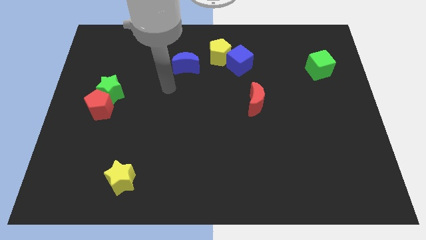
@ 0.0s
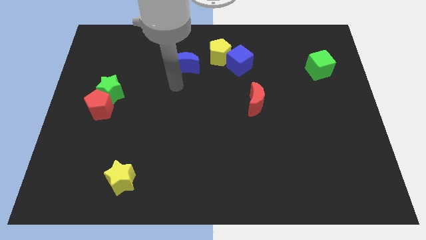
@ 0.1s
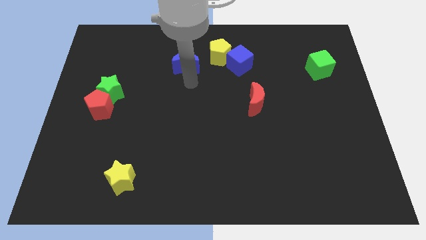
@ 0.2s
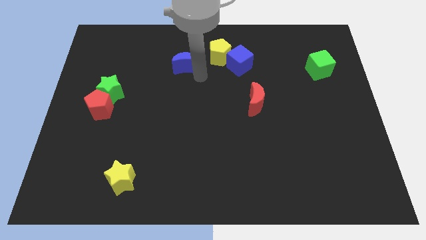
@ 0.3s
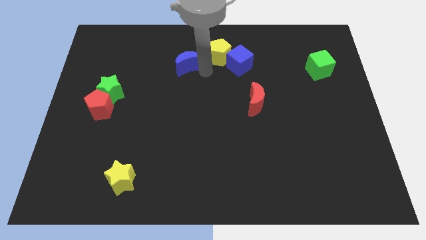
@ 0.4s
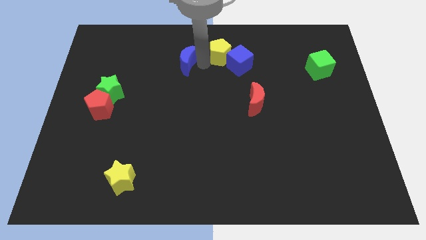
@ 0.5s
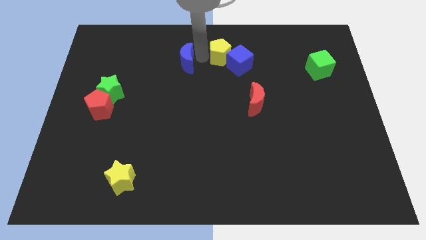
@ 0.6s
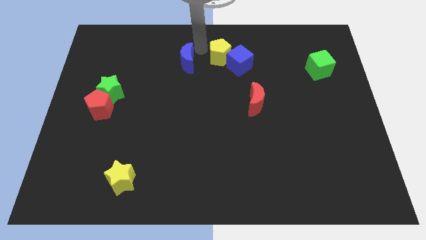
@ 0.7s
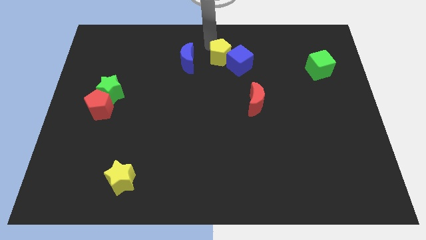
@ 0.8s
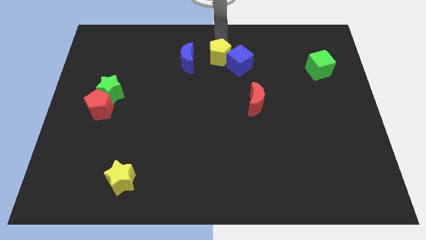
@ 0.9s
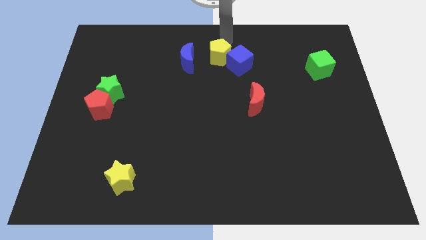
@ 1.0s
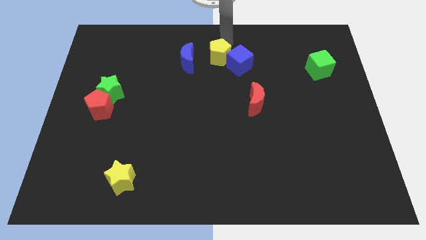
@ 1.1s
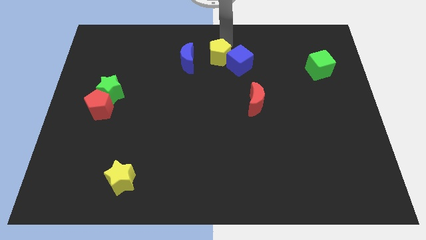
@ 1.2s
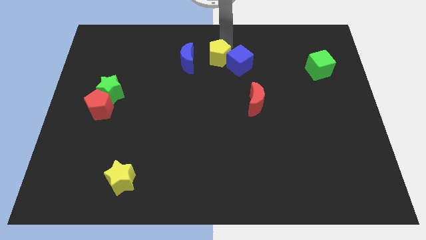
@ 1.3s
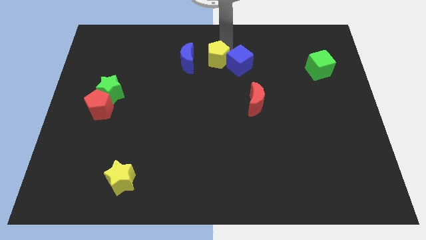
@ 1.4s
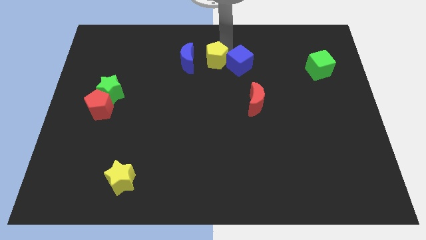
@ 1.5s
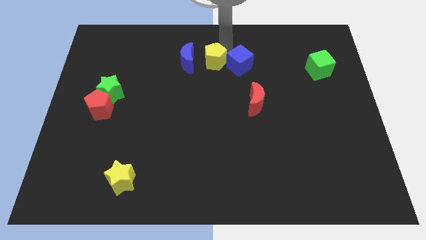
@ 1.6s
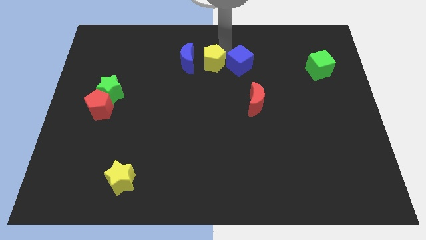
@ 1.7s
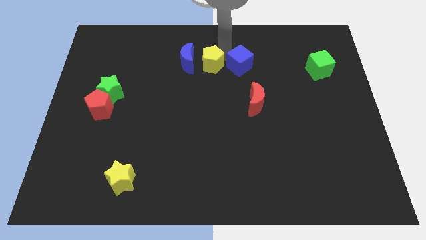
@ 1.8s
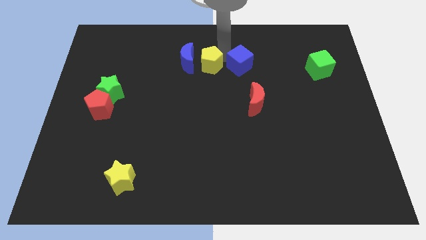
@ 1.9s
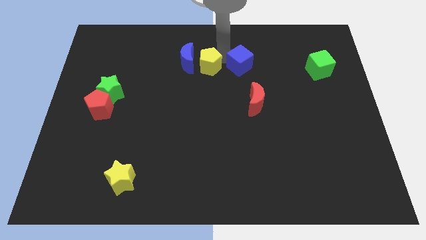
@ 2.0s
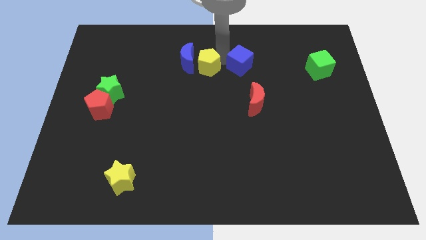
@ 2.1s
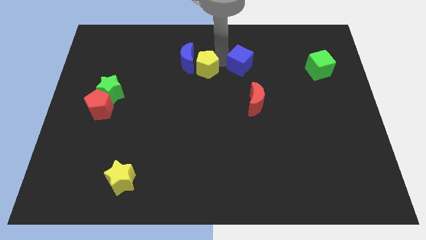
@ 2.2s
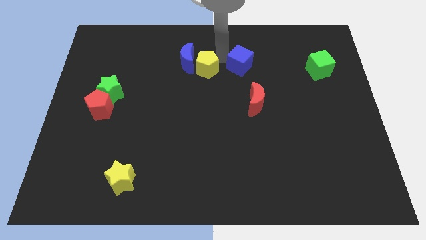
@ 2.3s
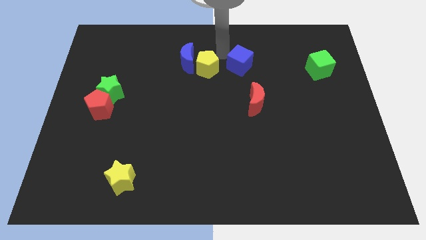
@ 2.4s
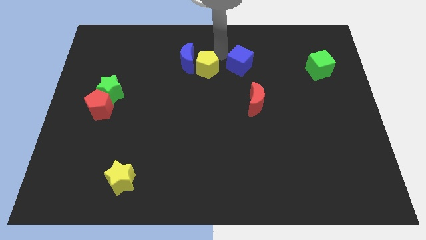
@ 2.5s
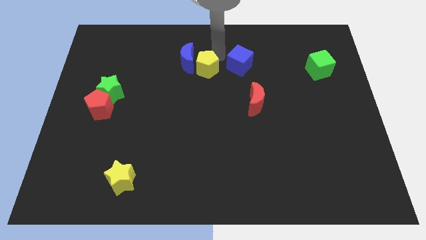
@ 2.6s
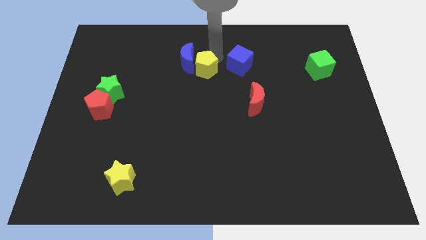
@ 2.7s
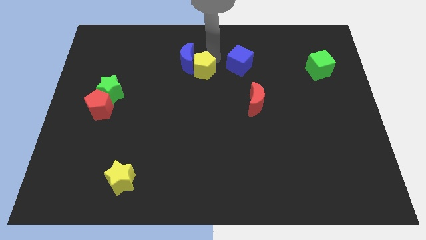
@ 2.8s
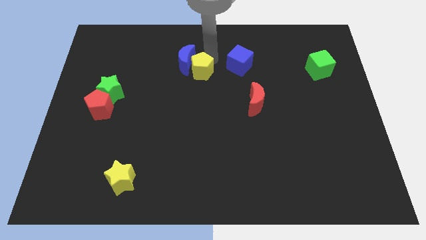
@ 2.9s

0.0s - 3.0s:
push the yellow pentagon downwards and left diagonally slightly

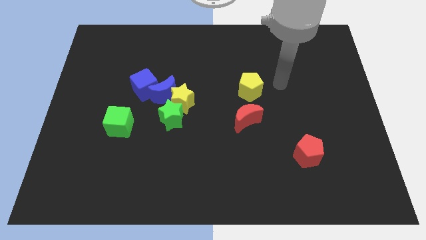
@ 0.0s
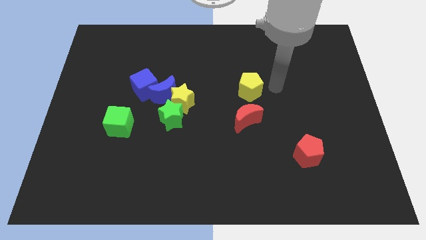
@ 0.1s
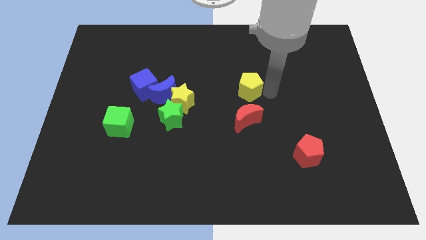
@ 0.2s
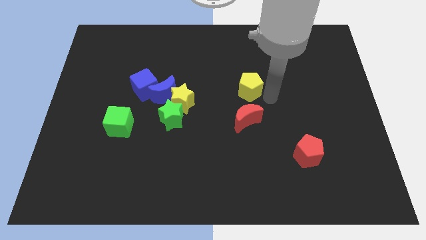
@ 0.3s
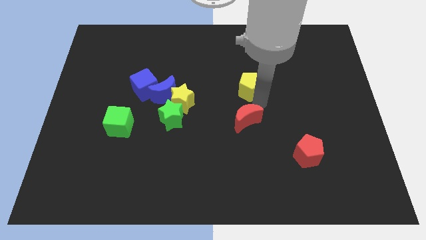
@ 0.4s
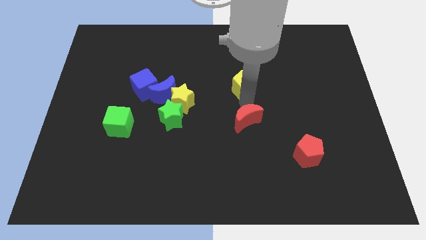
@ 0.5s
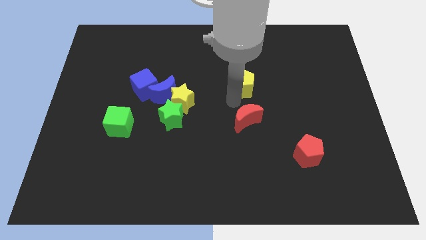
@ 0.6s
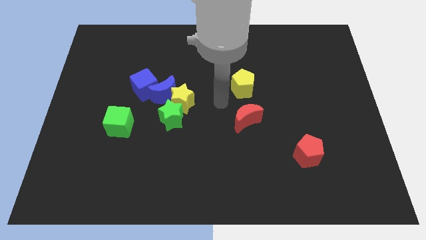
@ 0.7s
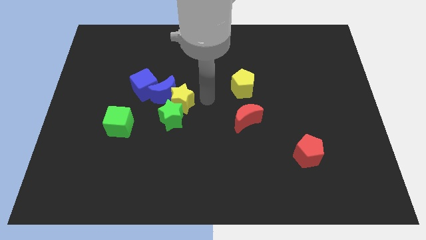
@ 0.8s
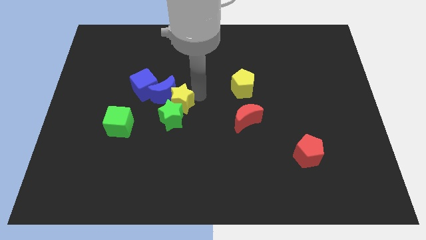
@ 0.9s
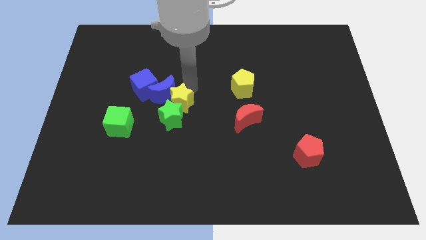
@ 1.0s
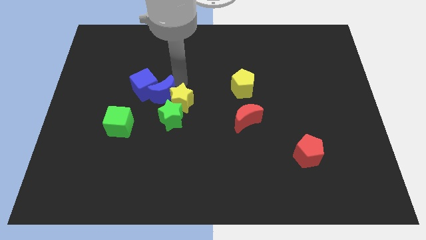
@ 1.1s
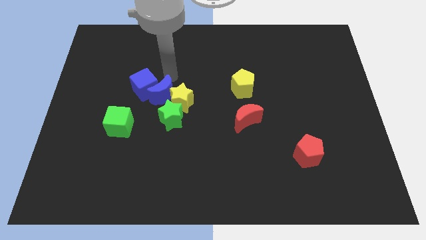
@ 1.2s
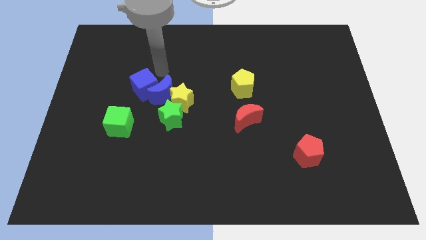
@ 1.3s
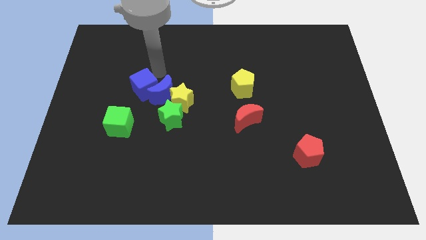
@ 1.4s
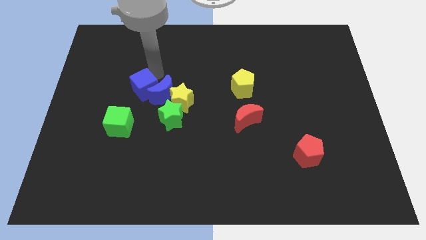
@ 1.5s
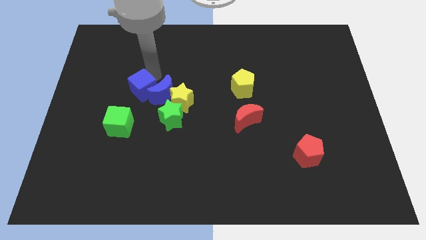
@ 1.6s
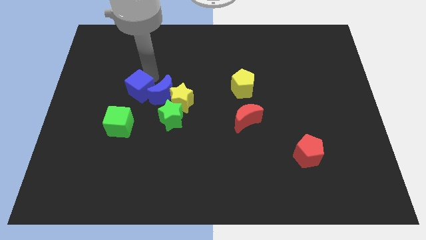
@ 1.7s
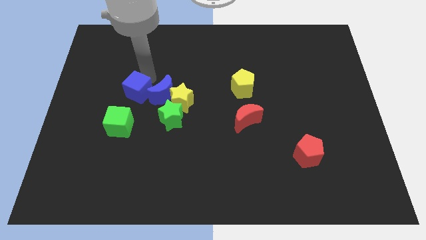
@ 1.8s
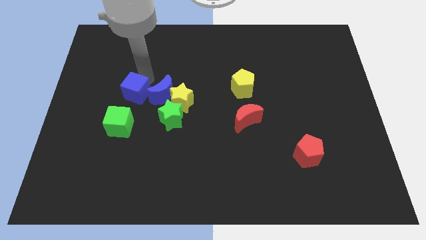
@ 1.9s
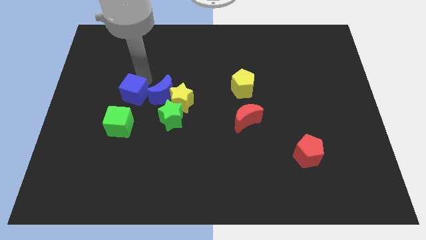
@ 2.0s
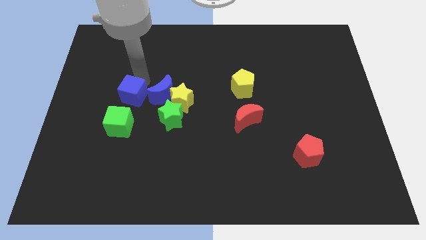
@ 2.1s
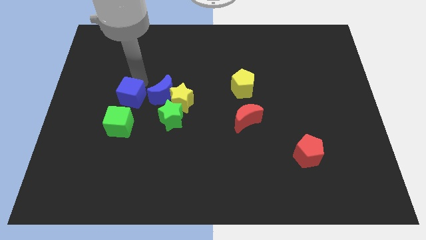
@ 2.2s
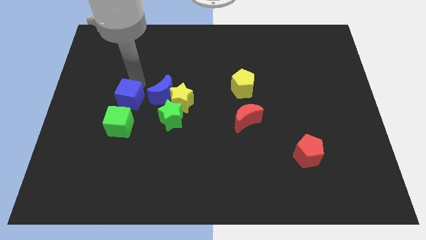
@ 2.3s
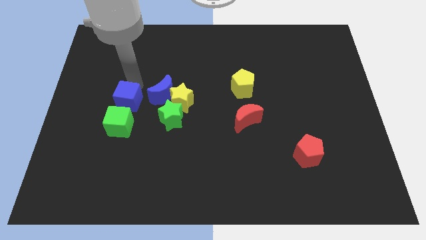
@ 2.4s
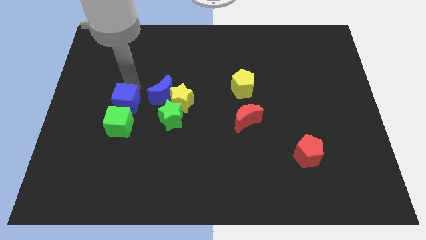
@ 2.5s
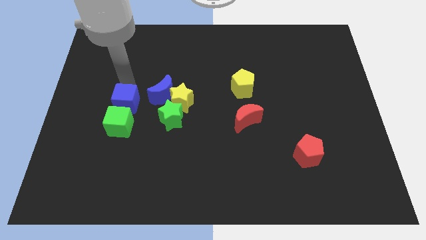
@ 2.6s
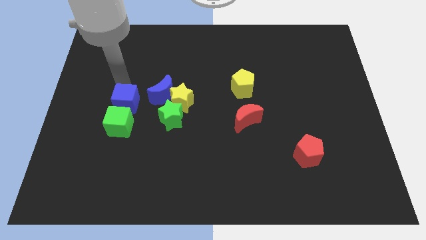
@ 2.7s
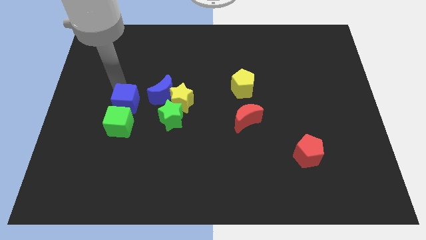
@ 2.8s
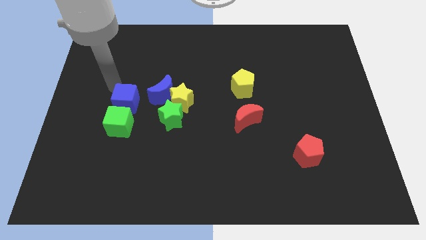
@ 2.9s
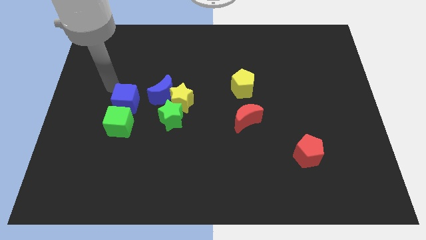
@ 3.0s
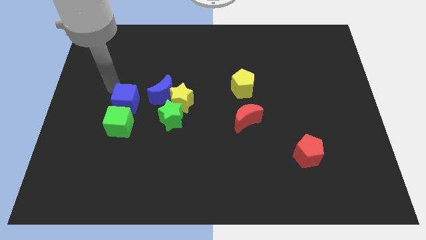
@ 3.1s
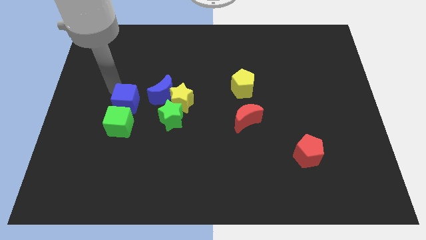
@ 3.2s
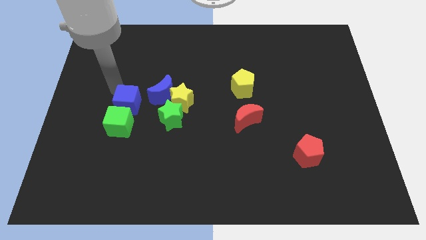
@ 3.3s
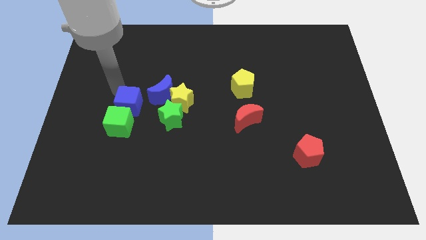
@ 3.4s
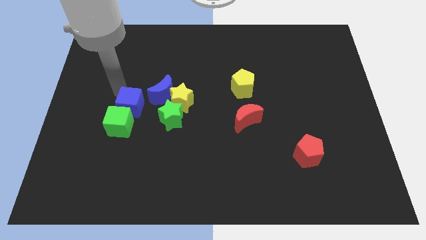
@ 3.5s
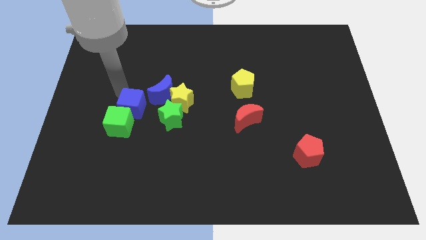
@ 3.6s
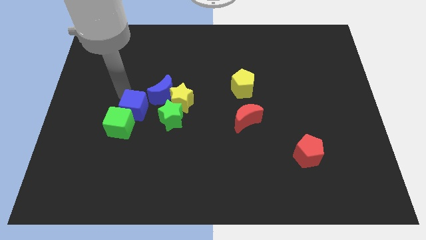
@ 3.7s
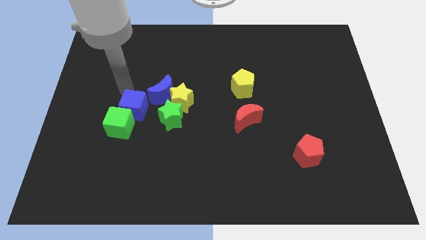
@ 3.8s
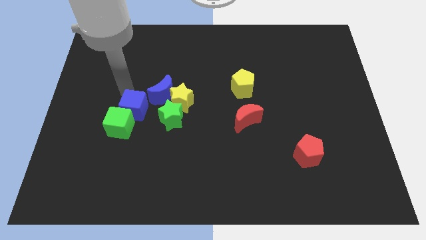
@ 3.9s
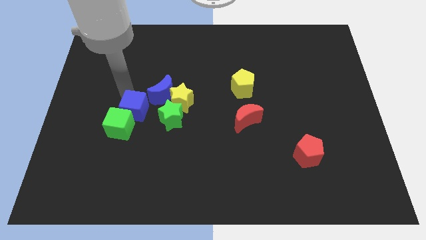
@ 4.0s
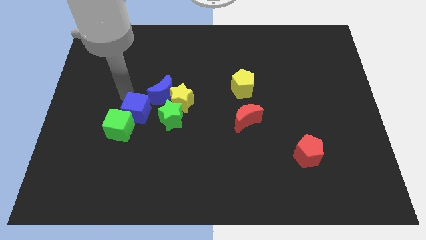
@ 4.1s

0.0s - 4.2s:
move the blue cube a little bit down

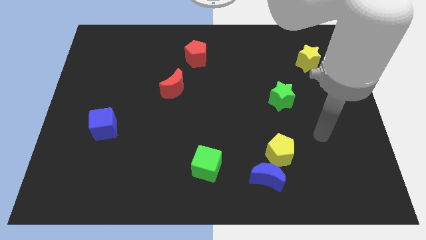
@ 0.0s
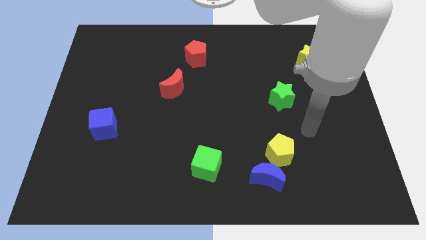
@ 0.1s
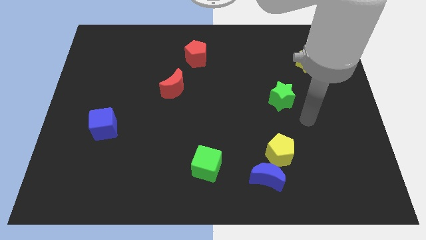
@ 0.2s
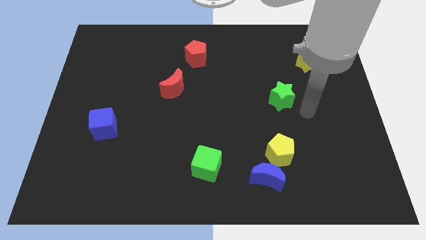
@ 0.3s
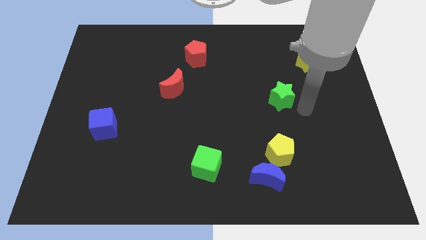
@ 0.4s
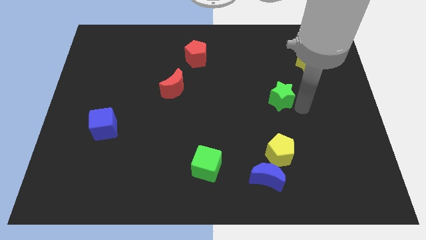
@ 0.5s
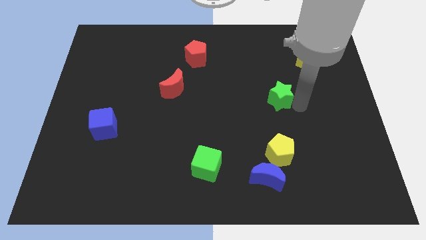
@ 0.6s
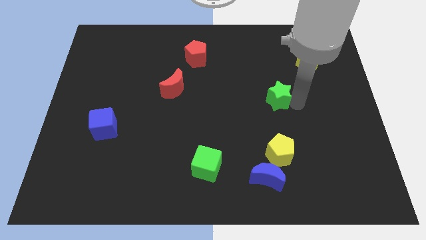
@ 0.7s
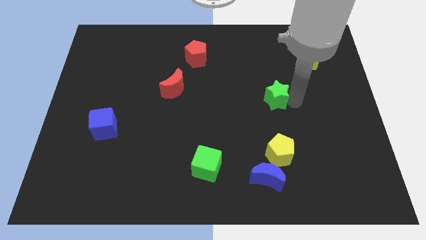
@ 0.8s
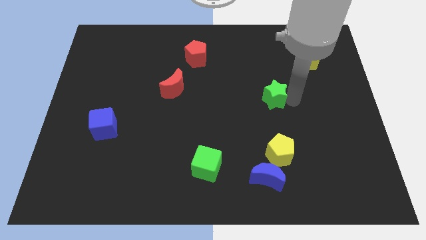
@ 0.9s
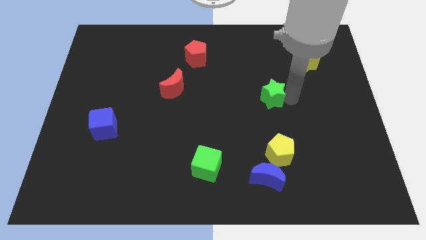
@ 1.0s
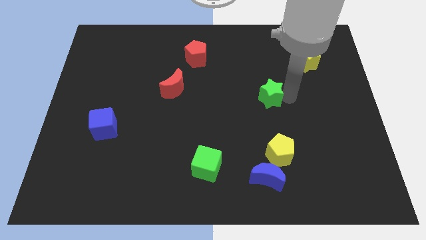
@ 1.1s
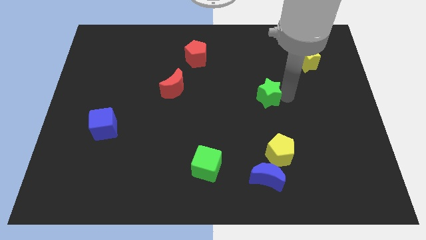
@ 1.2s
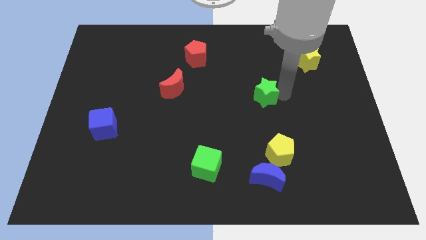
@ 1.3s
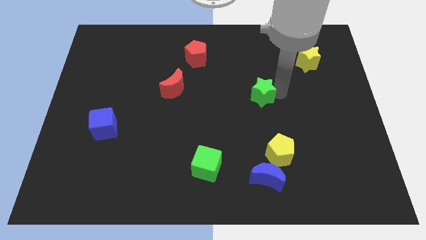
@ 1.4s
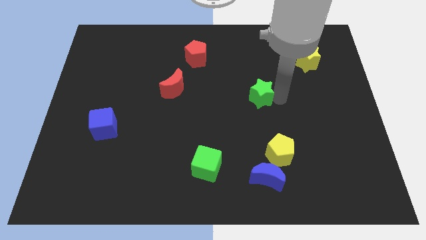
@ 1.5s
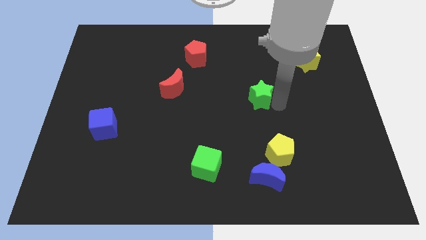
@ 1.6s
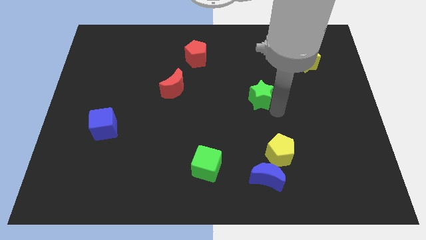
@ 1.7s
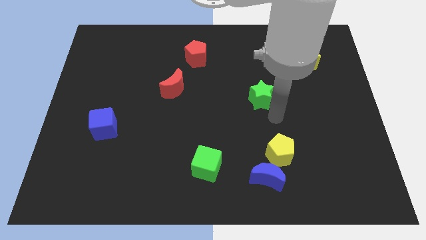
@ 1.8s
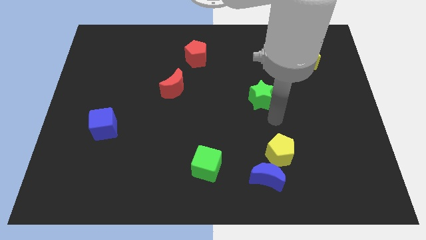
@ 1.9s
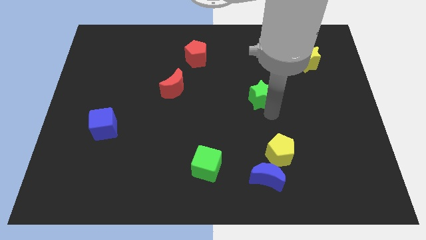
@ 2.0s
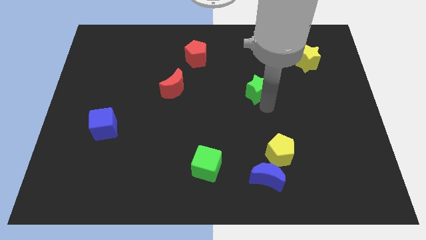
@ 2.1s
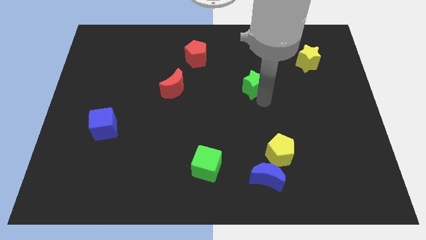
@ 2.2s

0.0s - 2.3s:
slightly move the green star upwards and then left
